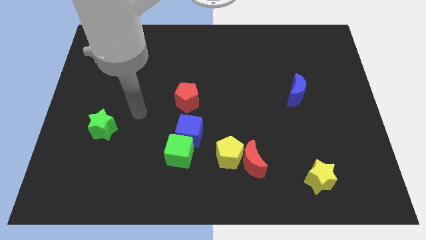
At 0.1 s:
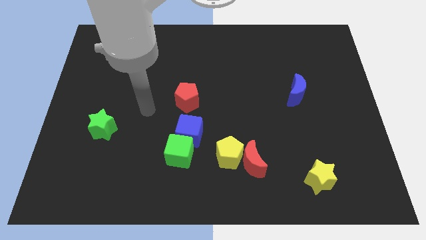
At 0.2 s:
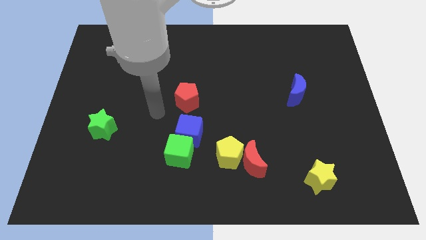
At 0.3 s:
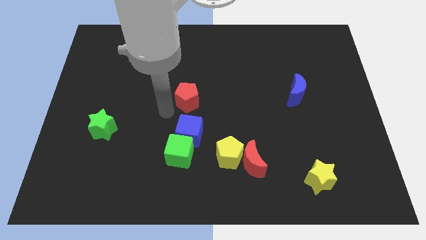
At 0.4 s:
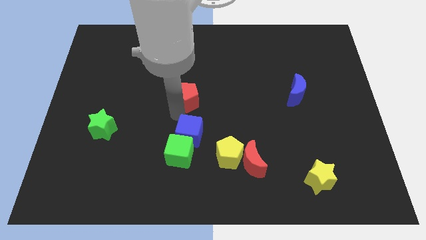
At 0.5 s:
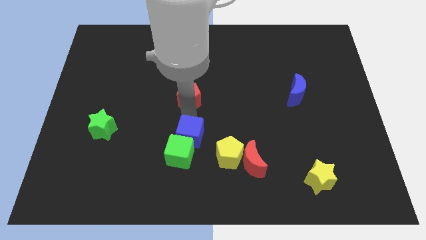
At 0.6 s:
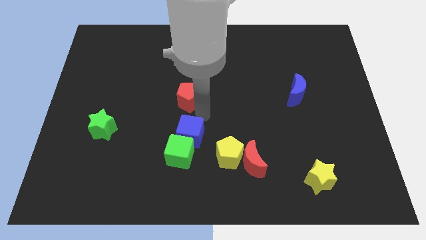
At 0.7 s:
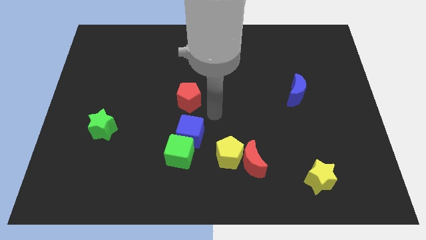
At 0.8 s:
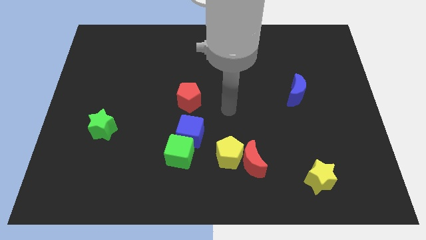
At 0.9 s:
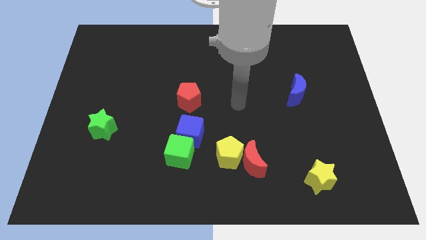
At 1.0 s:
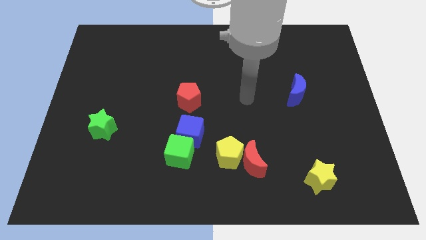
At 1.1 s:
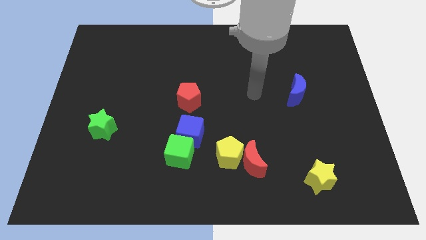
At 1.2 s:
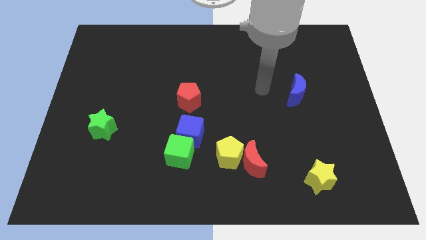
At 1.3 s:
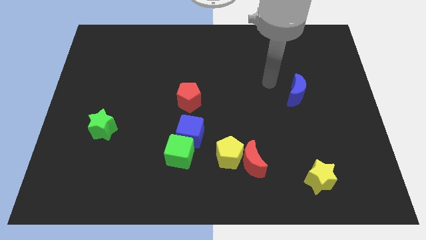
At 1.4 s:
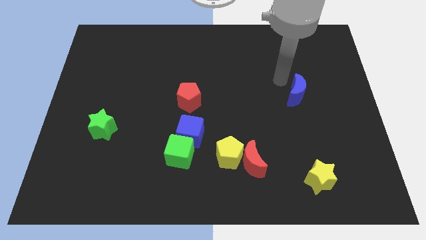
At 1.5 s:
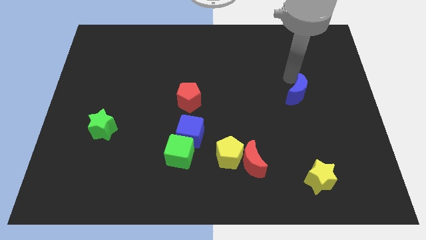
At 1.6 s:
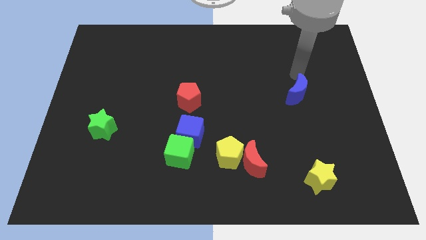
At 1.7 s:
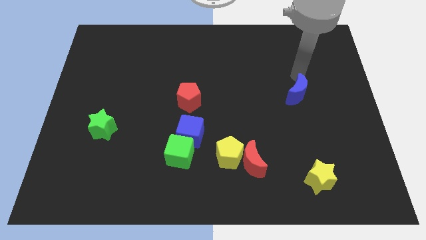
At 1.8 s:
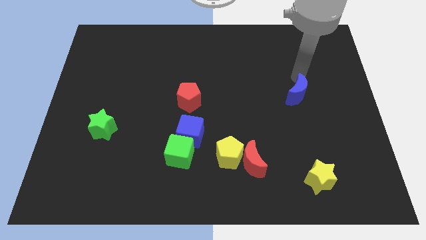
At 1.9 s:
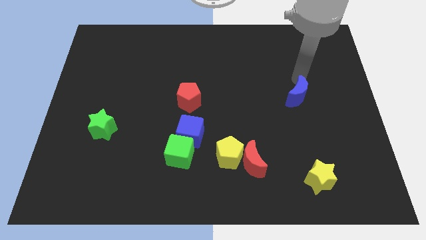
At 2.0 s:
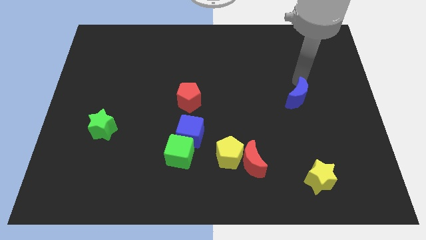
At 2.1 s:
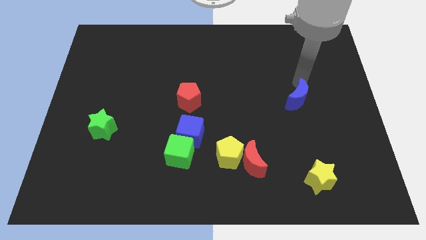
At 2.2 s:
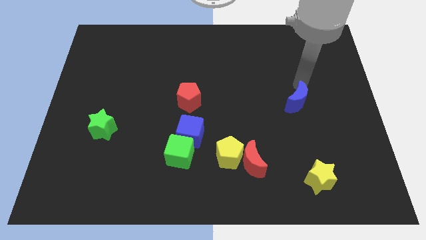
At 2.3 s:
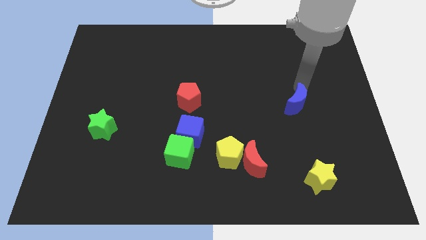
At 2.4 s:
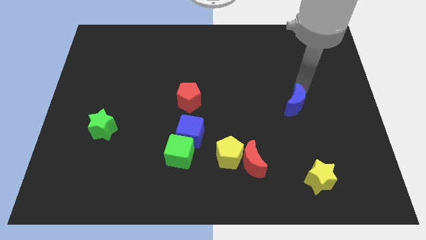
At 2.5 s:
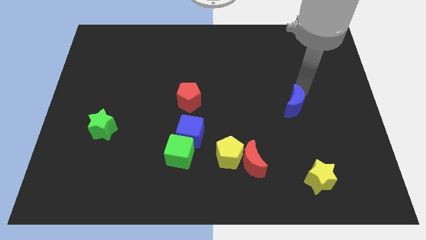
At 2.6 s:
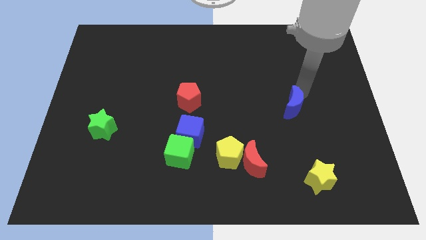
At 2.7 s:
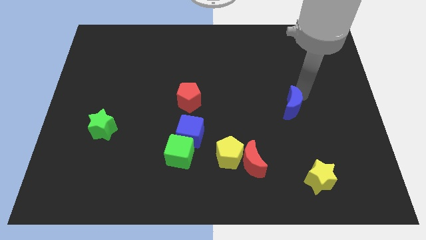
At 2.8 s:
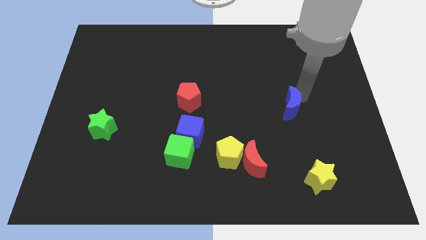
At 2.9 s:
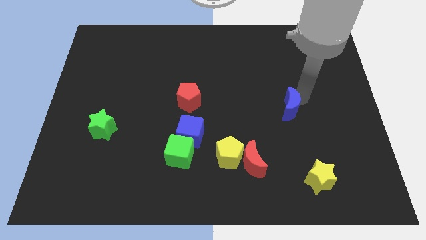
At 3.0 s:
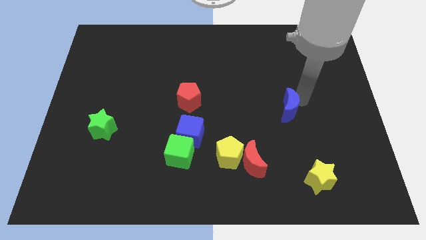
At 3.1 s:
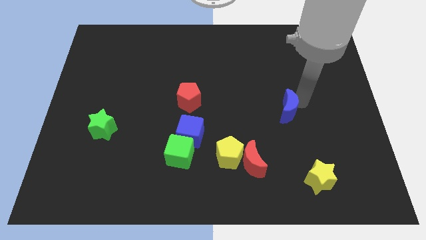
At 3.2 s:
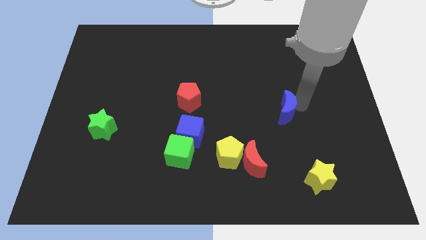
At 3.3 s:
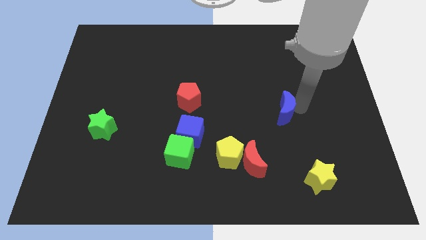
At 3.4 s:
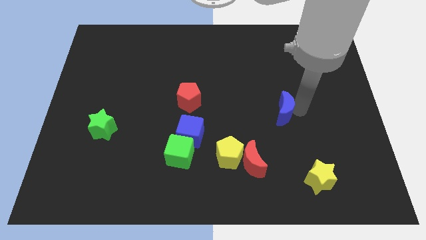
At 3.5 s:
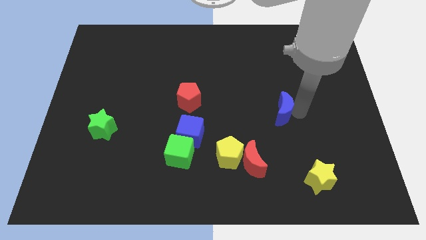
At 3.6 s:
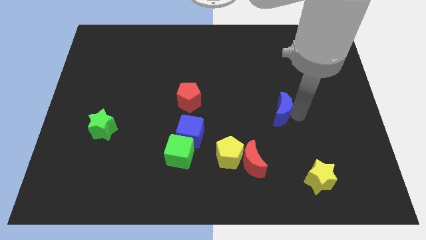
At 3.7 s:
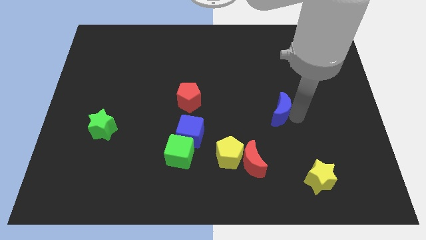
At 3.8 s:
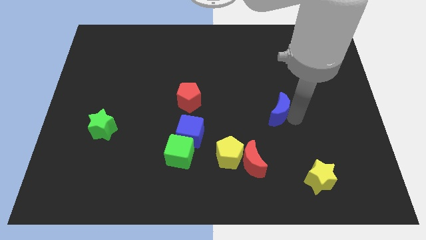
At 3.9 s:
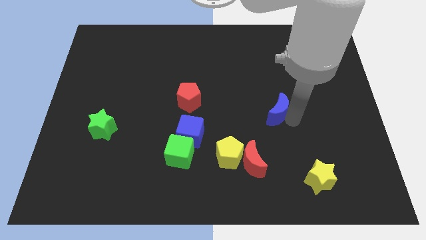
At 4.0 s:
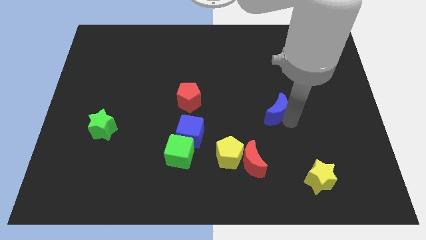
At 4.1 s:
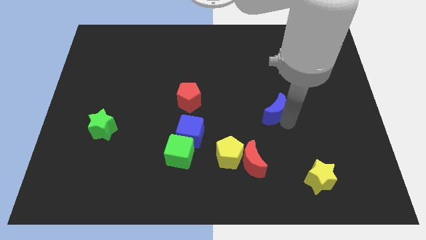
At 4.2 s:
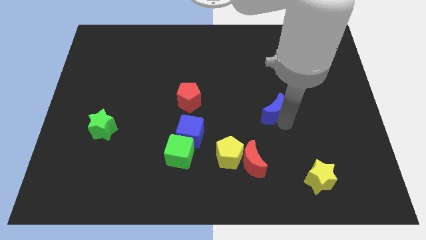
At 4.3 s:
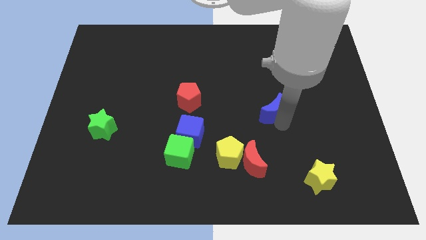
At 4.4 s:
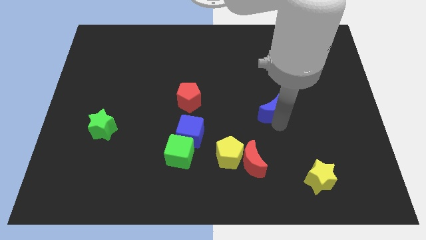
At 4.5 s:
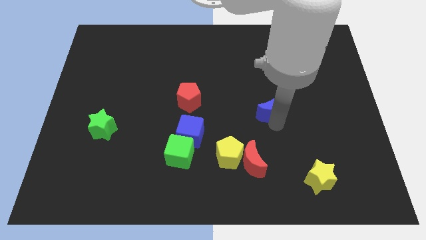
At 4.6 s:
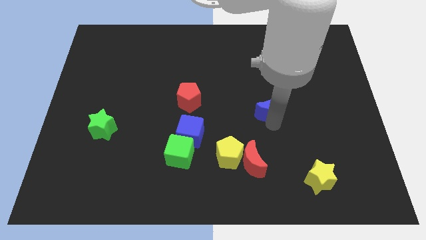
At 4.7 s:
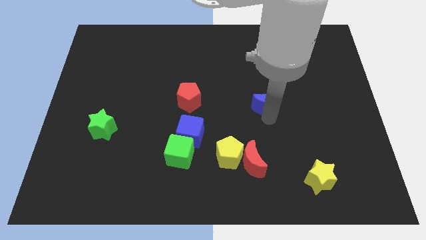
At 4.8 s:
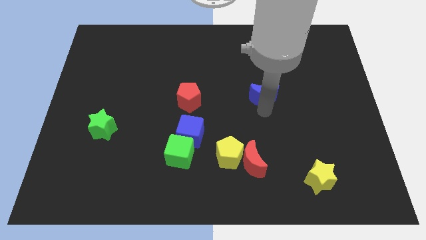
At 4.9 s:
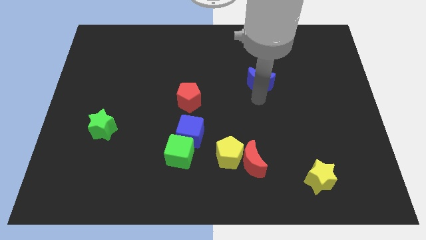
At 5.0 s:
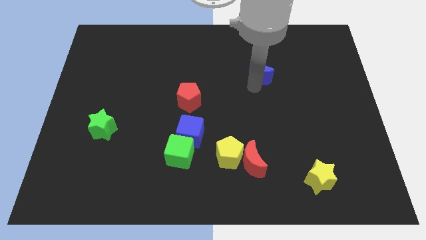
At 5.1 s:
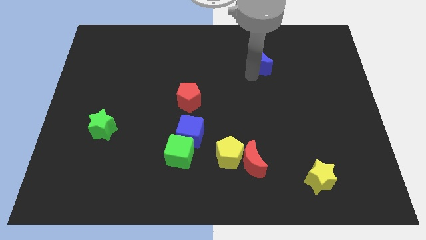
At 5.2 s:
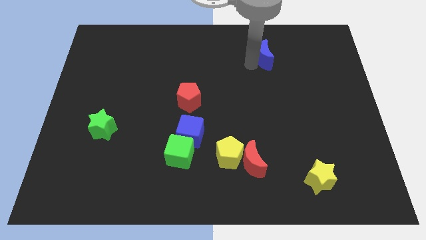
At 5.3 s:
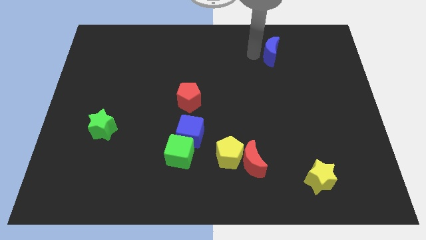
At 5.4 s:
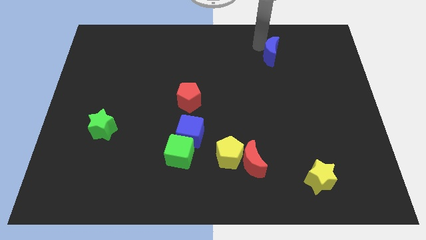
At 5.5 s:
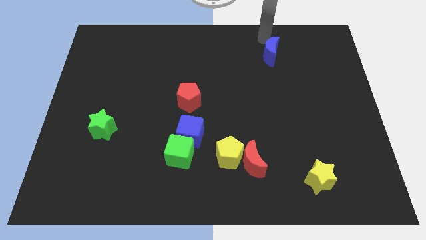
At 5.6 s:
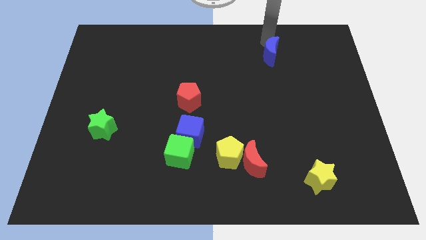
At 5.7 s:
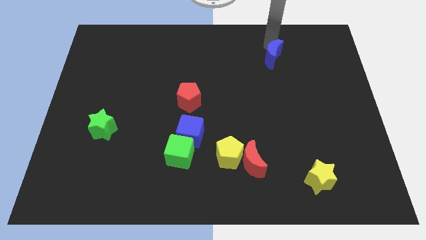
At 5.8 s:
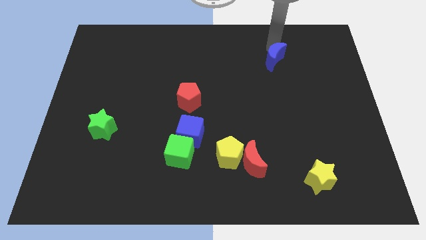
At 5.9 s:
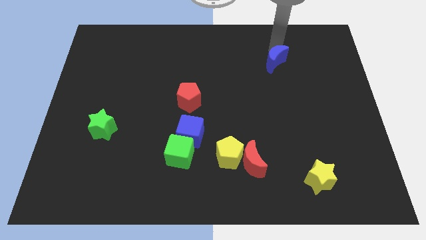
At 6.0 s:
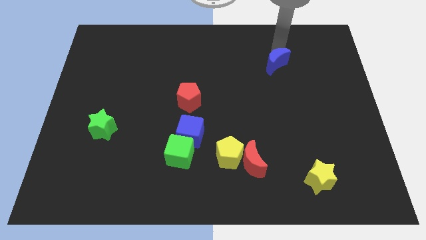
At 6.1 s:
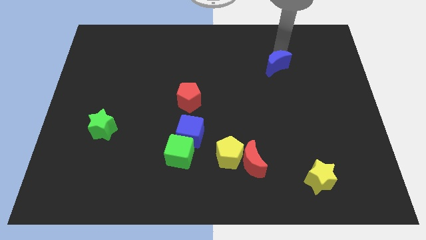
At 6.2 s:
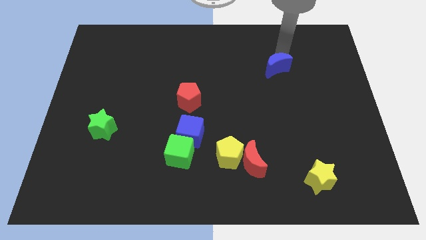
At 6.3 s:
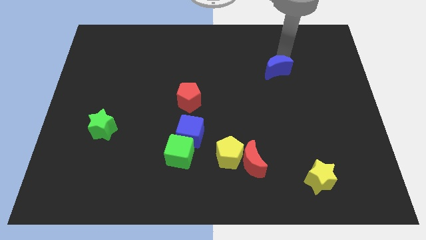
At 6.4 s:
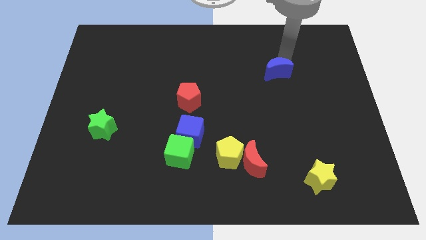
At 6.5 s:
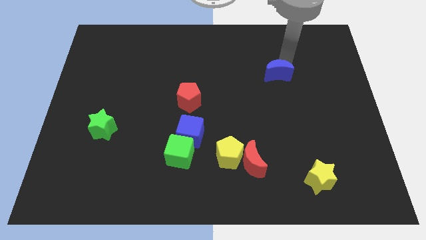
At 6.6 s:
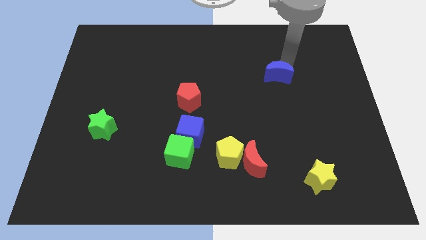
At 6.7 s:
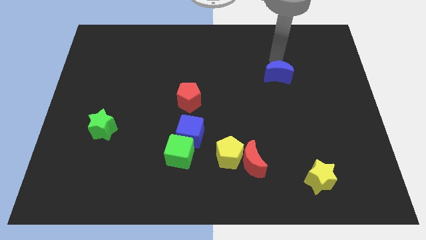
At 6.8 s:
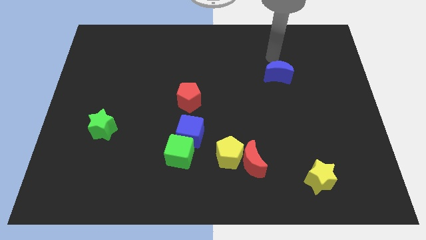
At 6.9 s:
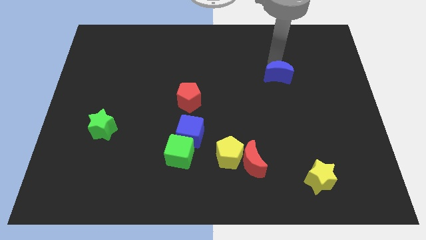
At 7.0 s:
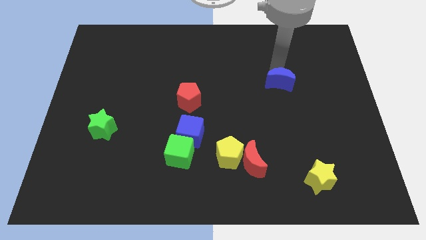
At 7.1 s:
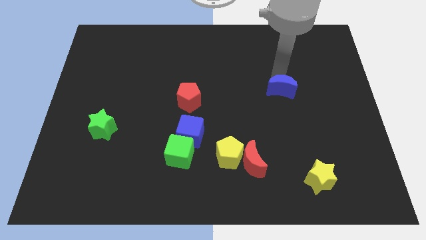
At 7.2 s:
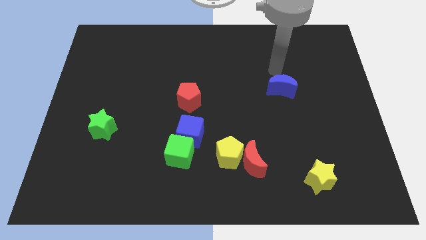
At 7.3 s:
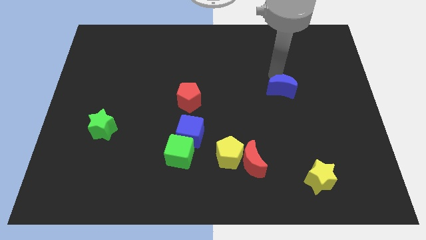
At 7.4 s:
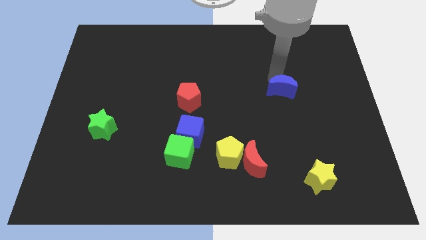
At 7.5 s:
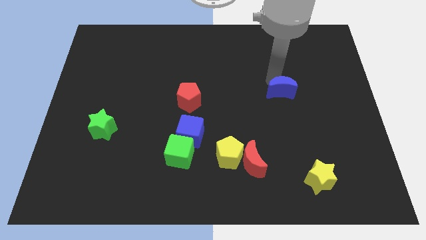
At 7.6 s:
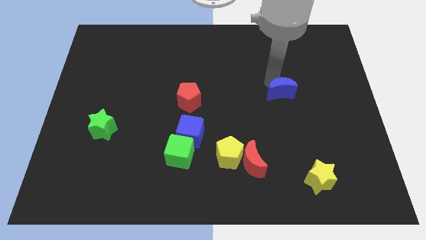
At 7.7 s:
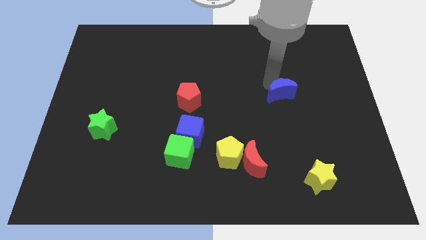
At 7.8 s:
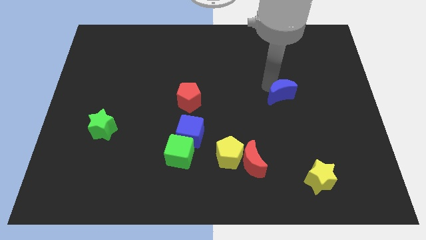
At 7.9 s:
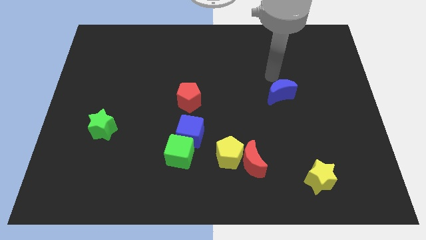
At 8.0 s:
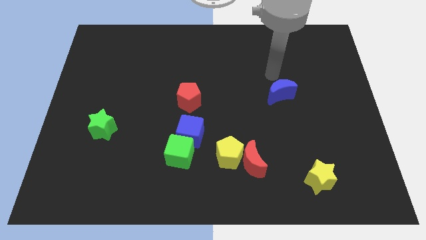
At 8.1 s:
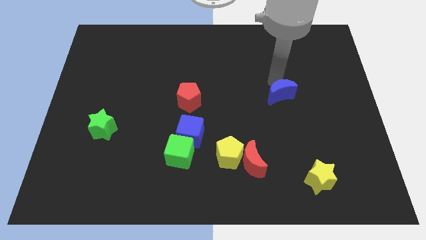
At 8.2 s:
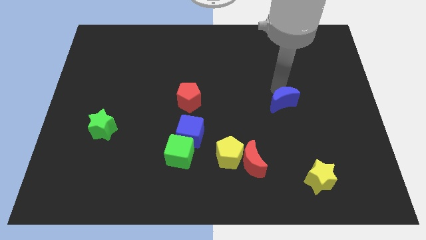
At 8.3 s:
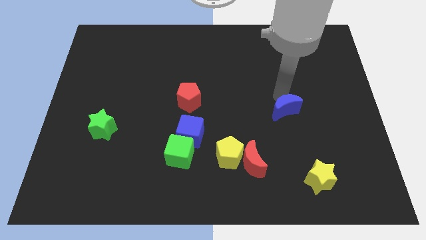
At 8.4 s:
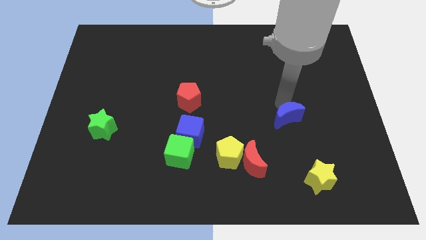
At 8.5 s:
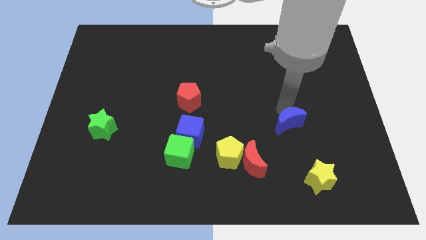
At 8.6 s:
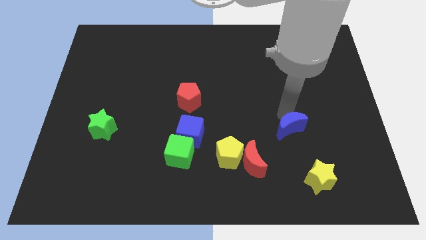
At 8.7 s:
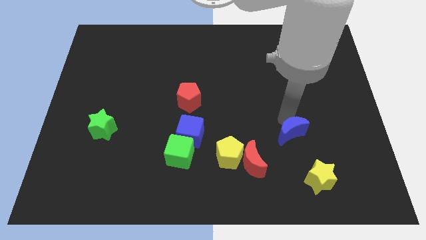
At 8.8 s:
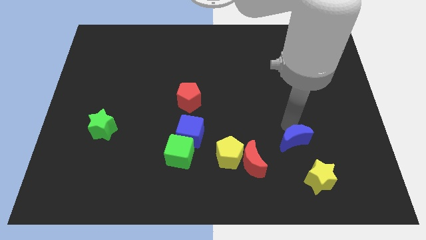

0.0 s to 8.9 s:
slide the blue moon diagonally up and to the left of the yellow star
